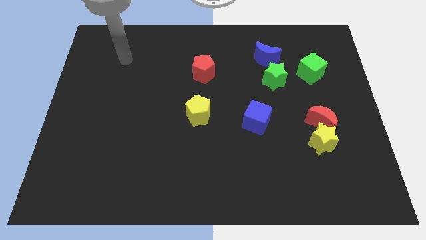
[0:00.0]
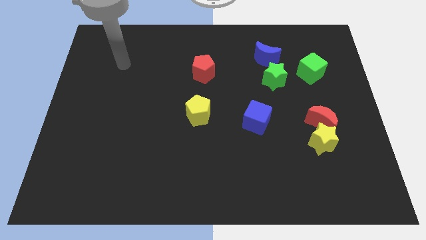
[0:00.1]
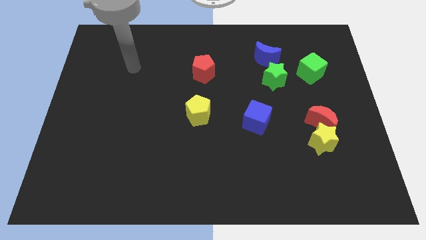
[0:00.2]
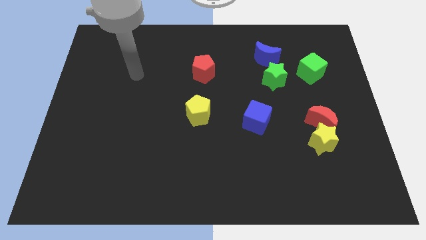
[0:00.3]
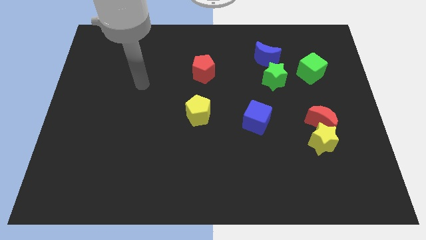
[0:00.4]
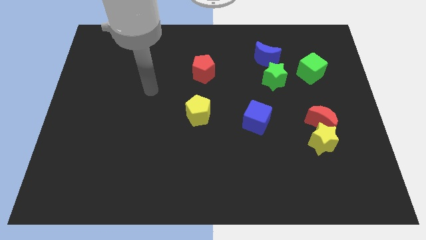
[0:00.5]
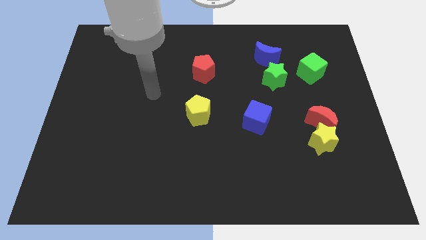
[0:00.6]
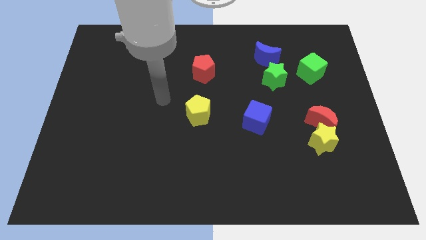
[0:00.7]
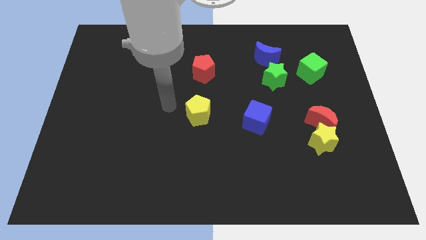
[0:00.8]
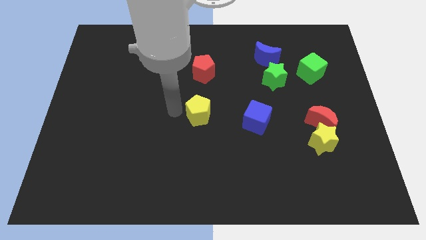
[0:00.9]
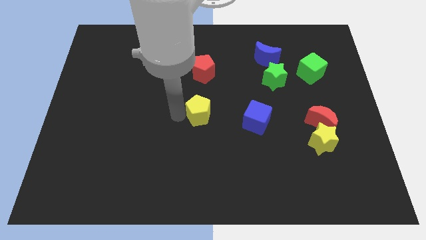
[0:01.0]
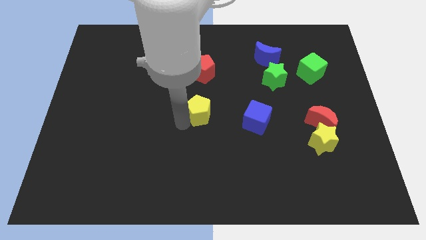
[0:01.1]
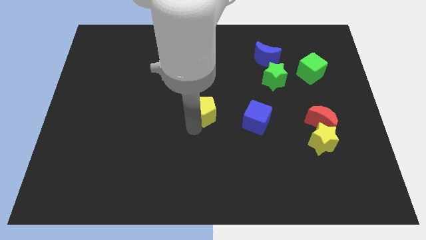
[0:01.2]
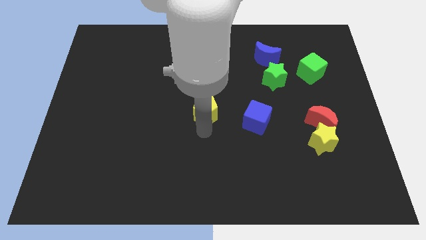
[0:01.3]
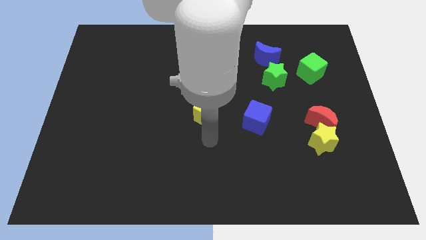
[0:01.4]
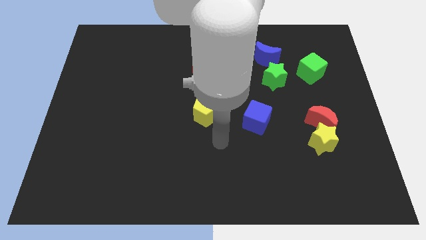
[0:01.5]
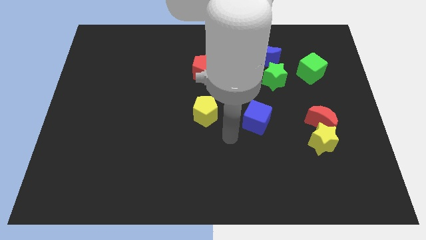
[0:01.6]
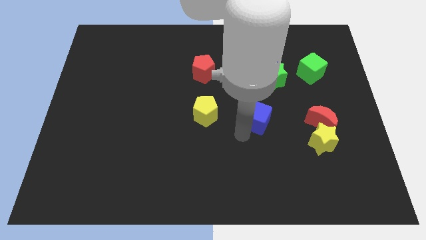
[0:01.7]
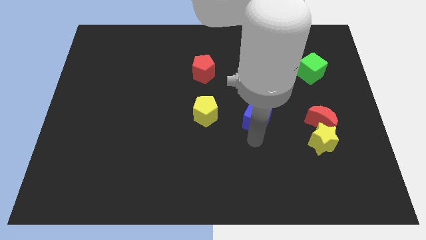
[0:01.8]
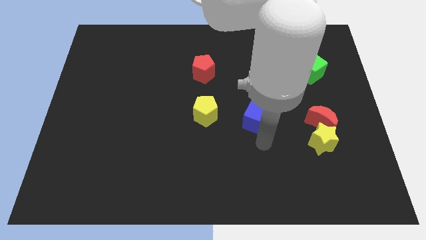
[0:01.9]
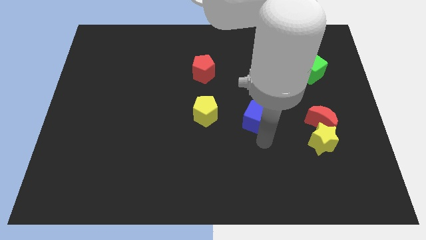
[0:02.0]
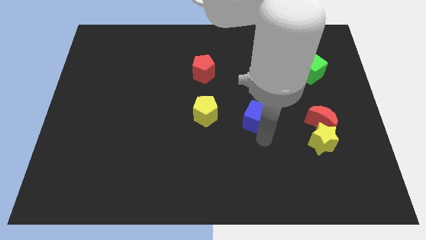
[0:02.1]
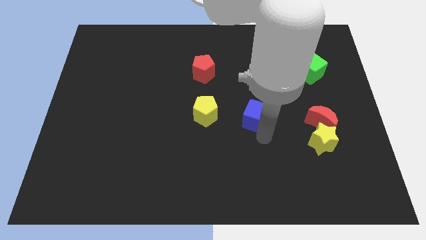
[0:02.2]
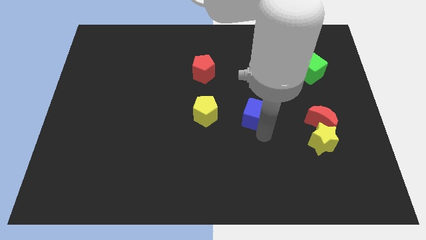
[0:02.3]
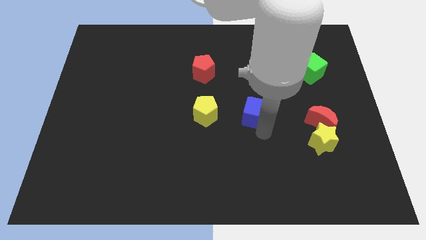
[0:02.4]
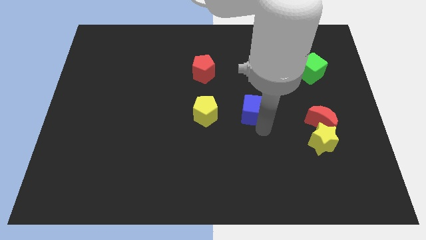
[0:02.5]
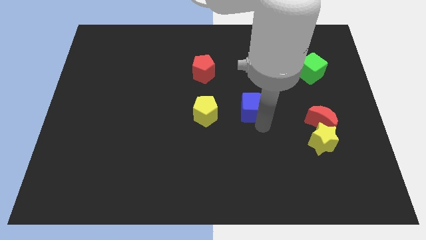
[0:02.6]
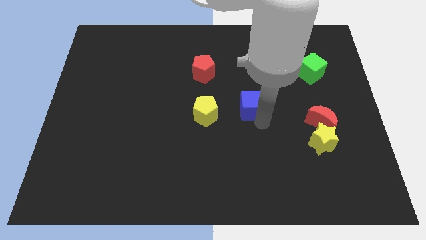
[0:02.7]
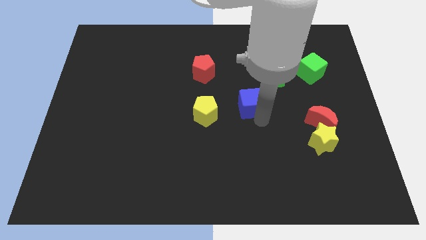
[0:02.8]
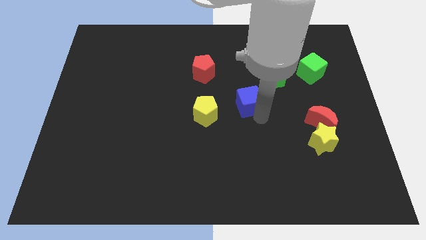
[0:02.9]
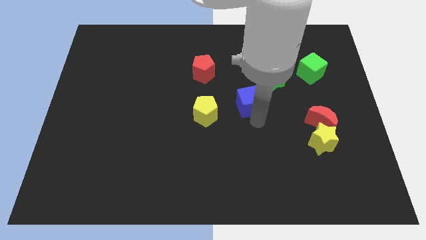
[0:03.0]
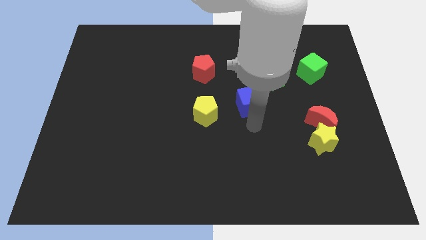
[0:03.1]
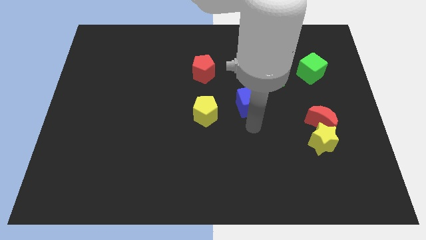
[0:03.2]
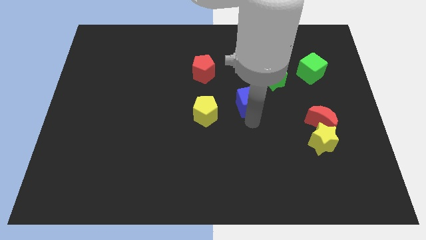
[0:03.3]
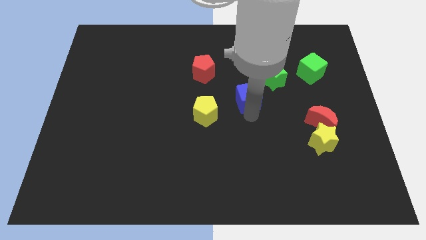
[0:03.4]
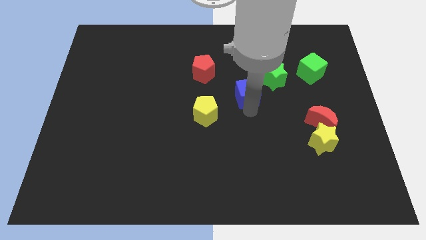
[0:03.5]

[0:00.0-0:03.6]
slightly move the blue cube up

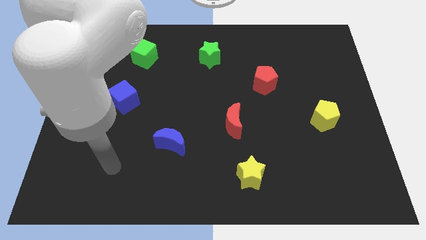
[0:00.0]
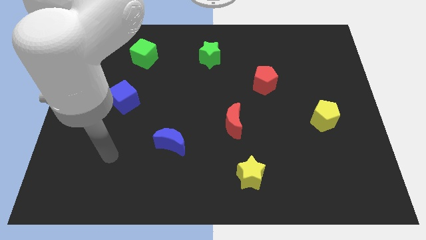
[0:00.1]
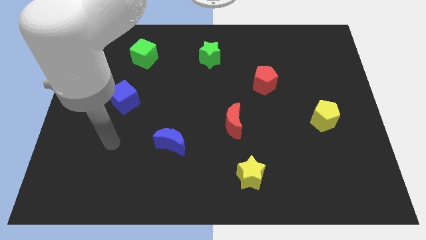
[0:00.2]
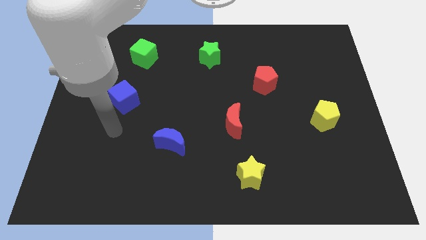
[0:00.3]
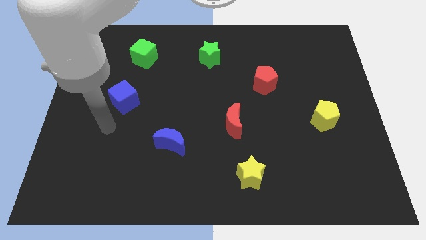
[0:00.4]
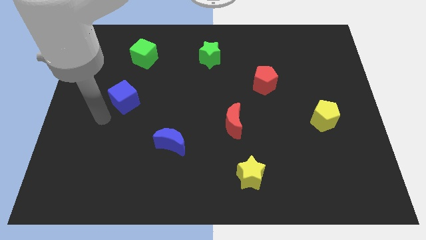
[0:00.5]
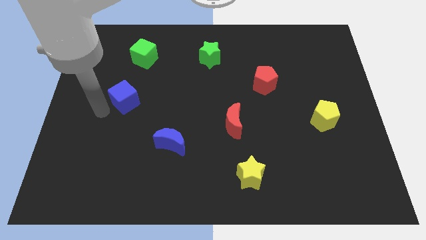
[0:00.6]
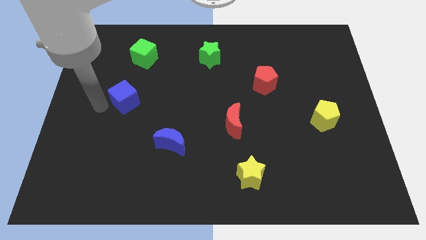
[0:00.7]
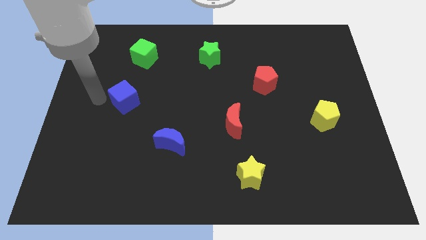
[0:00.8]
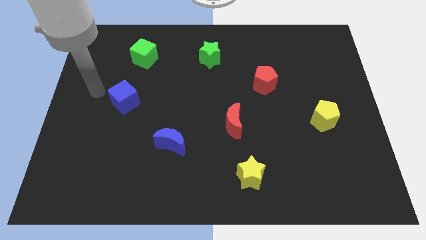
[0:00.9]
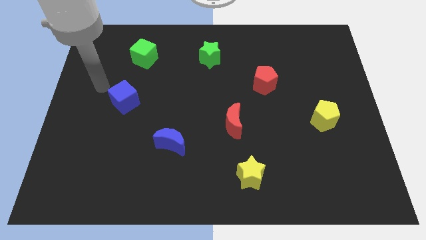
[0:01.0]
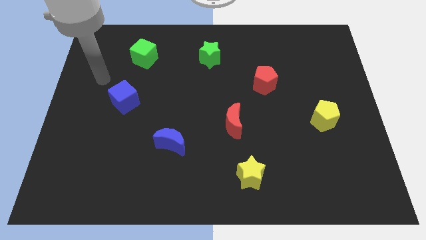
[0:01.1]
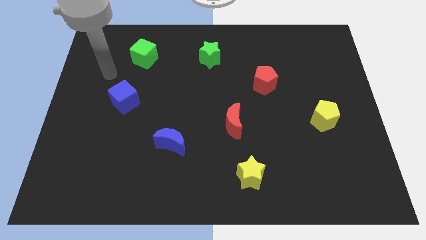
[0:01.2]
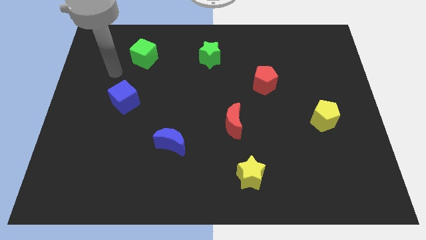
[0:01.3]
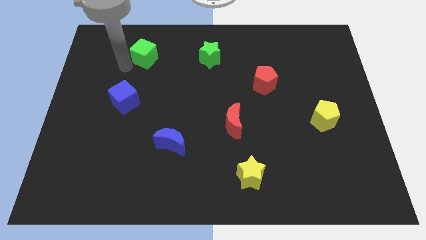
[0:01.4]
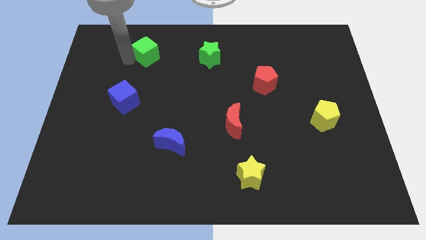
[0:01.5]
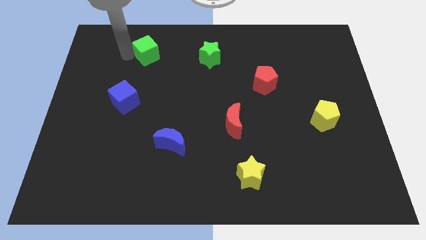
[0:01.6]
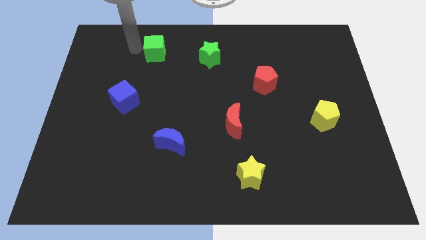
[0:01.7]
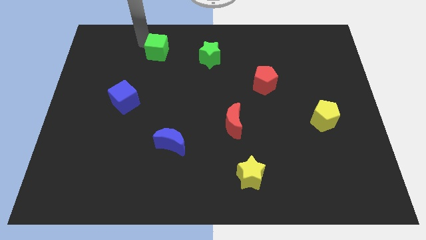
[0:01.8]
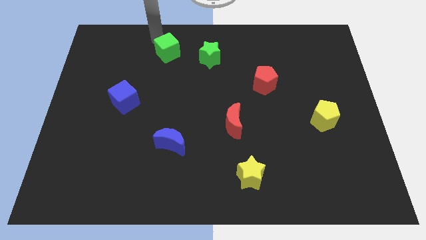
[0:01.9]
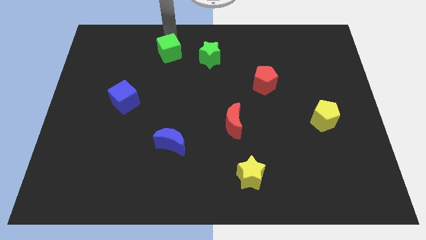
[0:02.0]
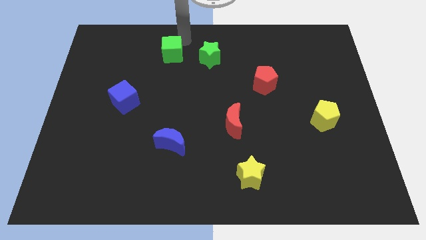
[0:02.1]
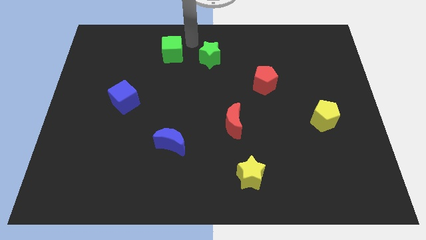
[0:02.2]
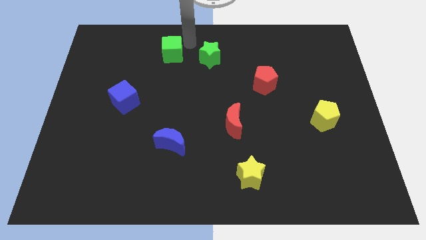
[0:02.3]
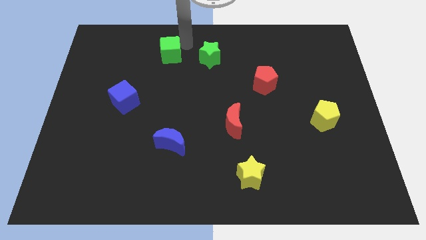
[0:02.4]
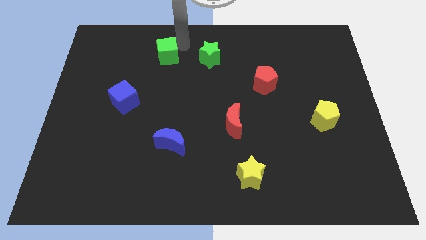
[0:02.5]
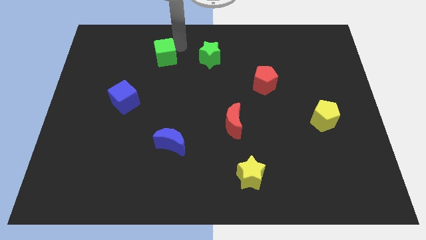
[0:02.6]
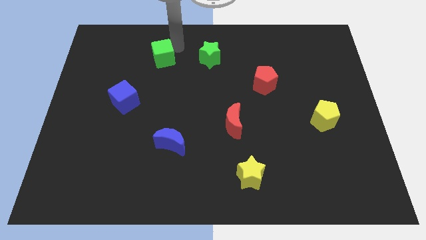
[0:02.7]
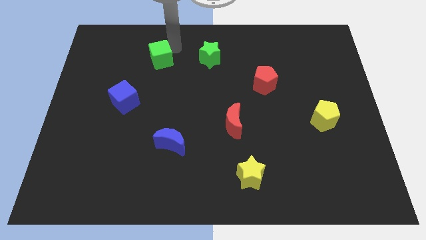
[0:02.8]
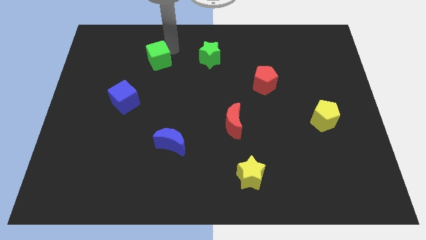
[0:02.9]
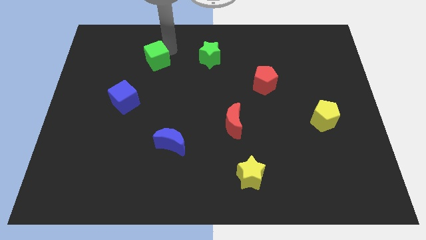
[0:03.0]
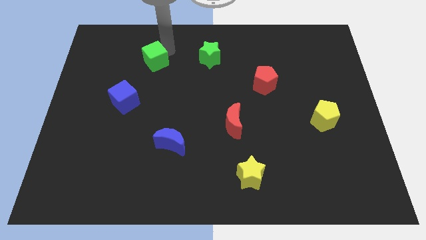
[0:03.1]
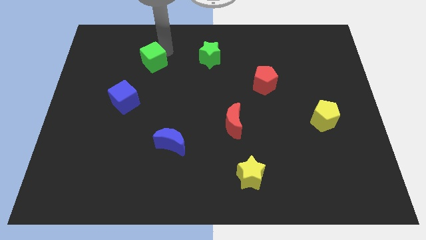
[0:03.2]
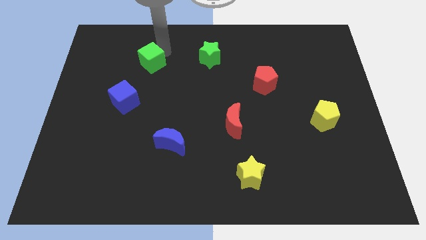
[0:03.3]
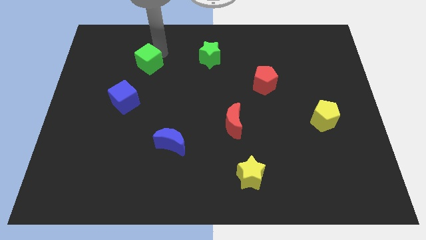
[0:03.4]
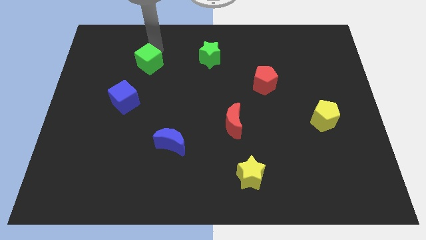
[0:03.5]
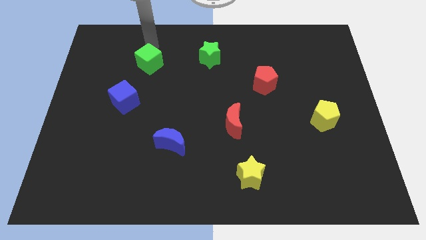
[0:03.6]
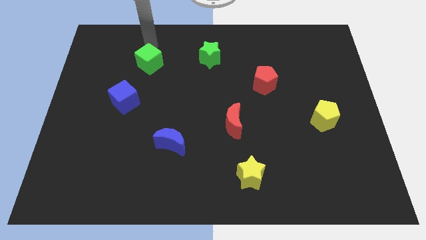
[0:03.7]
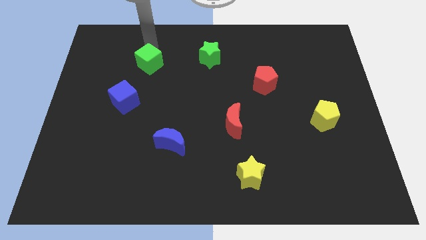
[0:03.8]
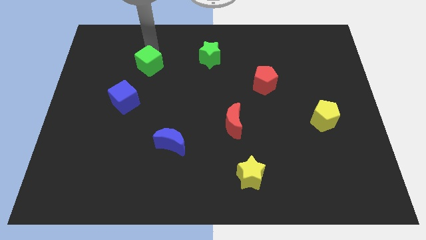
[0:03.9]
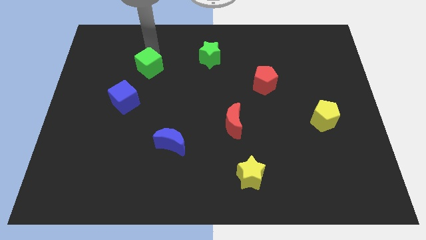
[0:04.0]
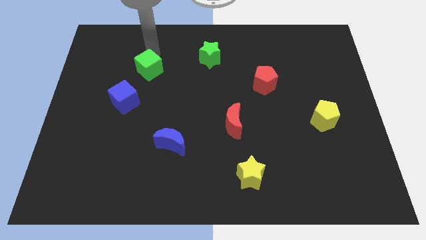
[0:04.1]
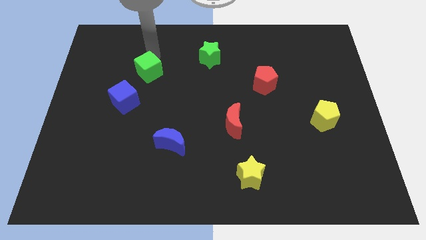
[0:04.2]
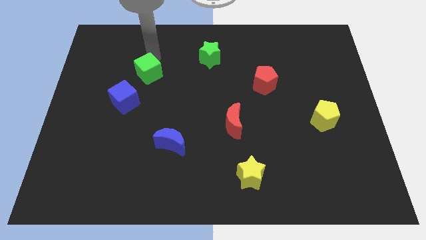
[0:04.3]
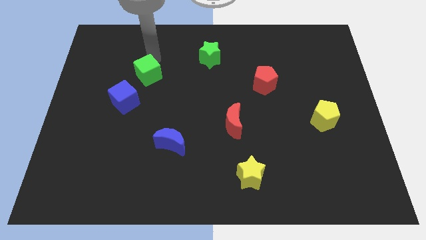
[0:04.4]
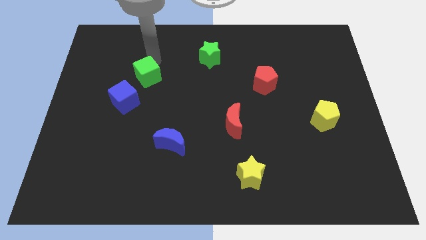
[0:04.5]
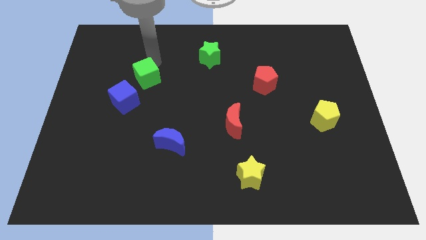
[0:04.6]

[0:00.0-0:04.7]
slightly slide the green cube downwards
